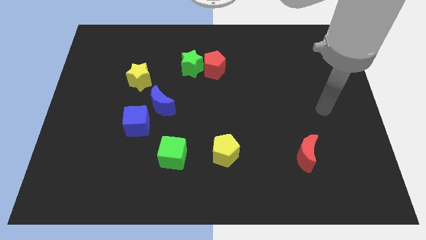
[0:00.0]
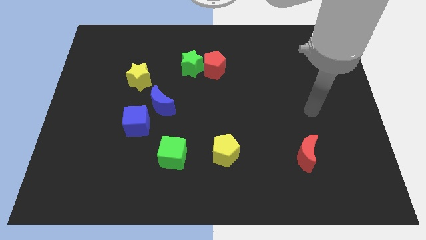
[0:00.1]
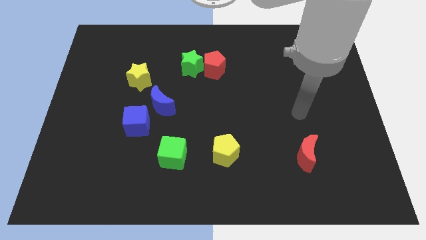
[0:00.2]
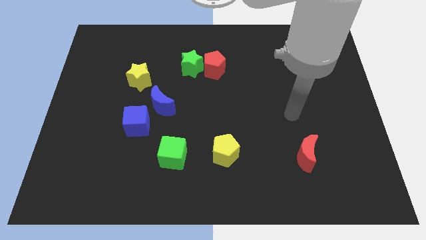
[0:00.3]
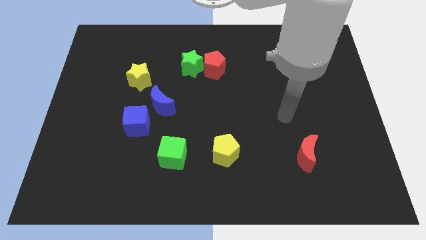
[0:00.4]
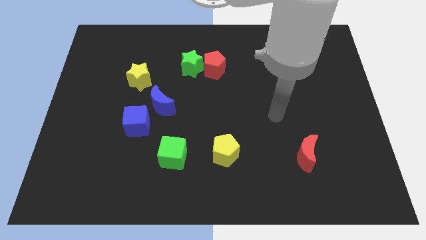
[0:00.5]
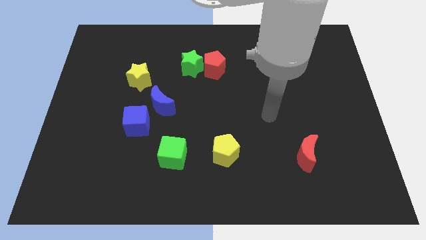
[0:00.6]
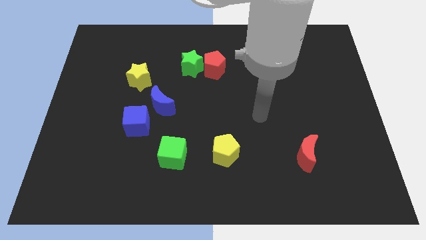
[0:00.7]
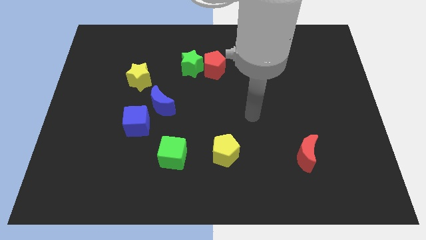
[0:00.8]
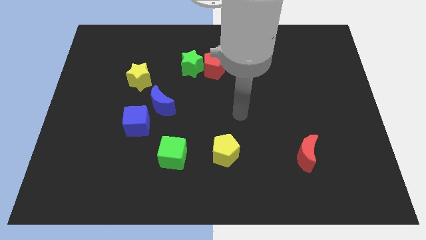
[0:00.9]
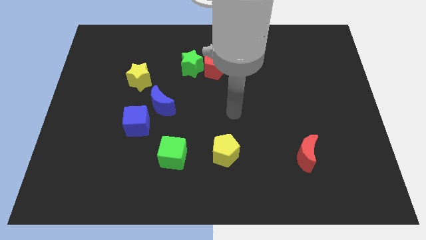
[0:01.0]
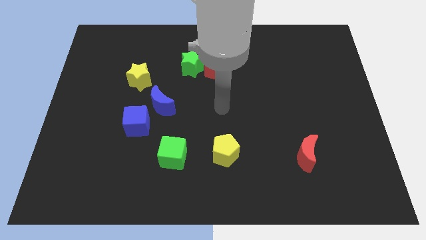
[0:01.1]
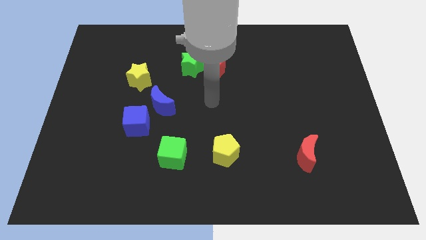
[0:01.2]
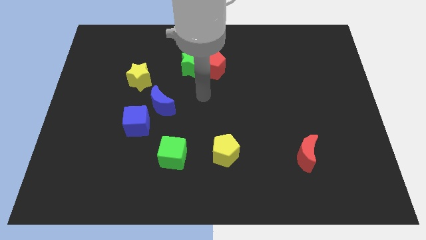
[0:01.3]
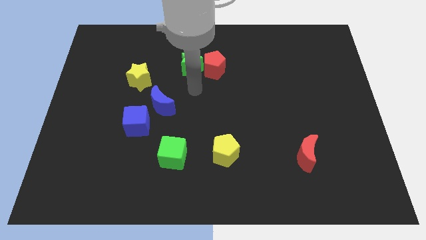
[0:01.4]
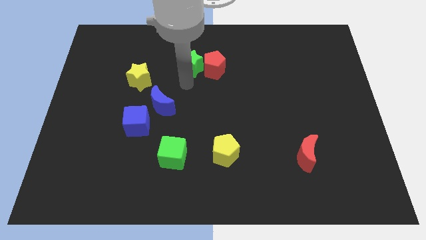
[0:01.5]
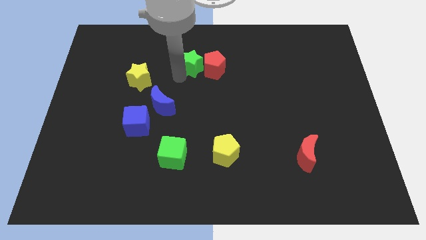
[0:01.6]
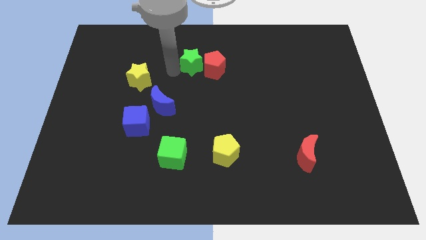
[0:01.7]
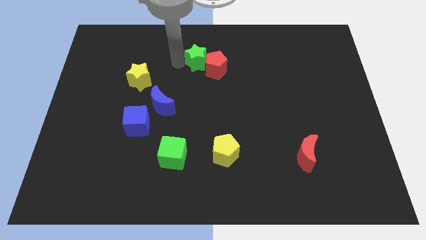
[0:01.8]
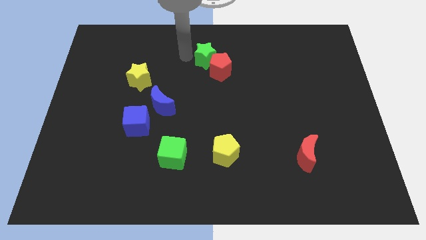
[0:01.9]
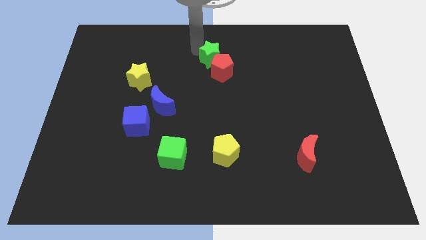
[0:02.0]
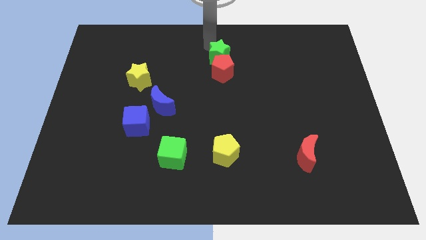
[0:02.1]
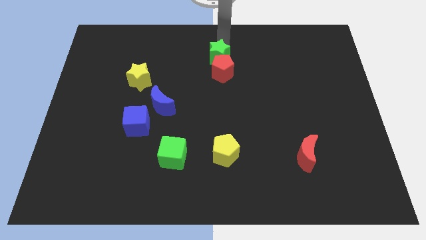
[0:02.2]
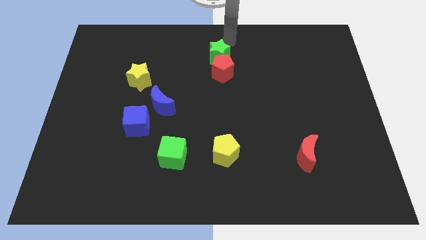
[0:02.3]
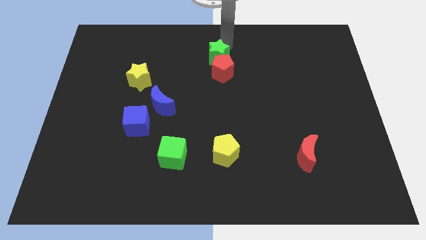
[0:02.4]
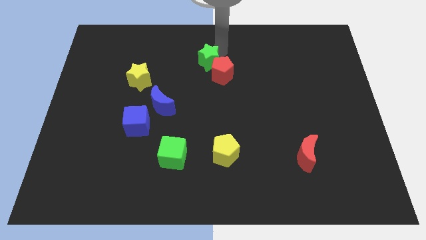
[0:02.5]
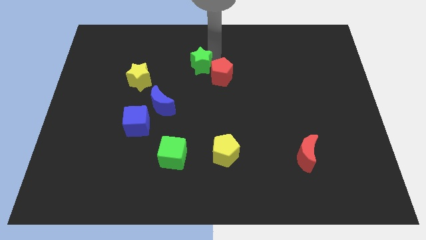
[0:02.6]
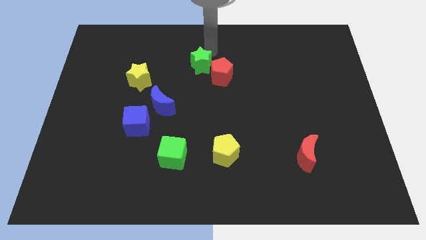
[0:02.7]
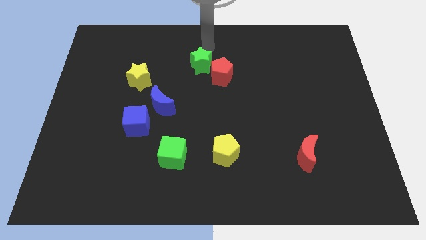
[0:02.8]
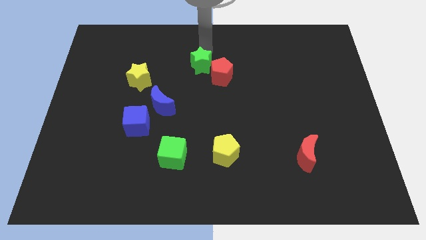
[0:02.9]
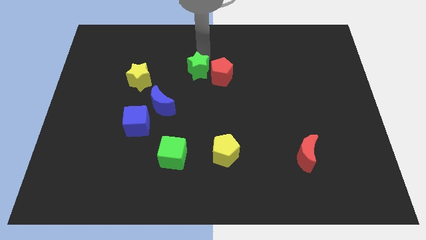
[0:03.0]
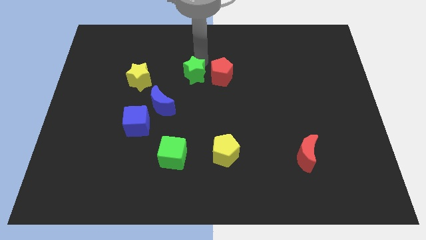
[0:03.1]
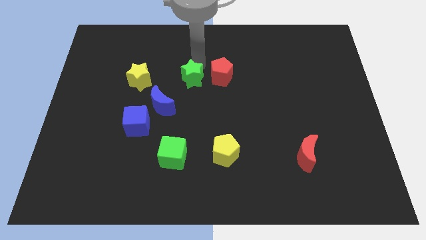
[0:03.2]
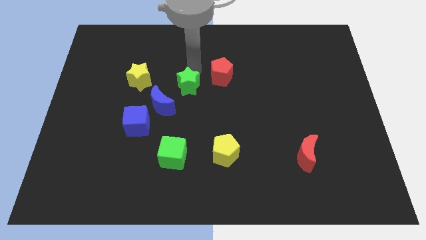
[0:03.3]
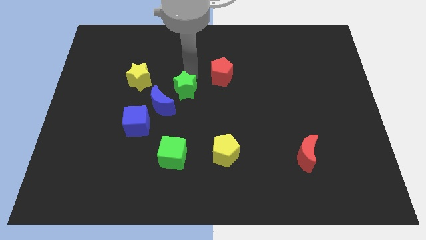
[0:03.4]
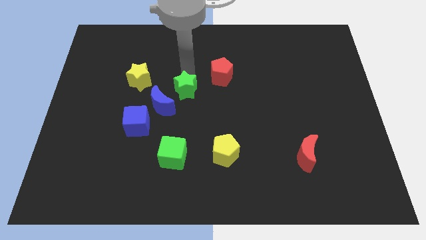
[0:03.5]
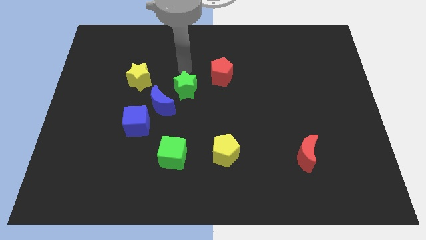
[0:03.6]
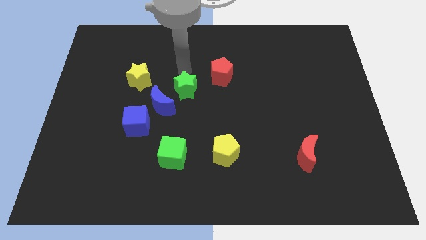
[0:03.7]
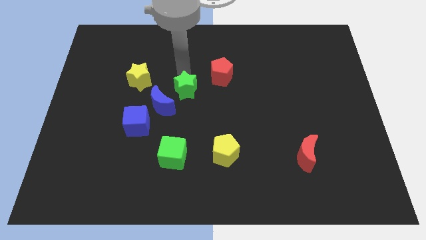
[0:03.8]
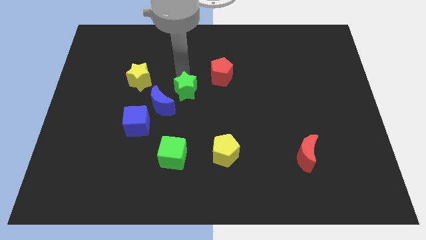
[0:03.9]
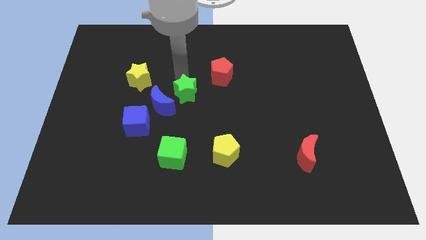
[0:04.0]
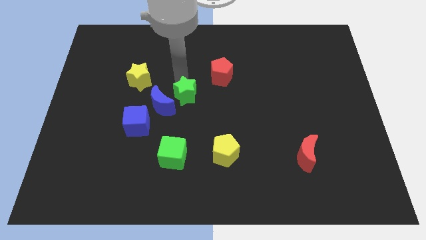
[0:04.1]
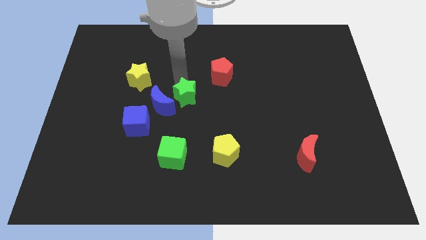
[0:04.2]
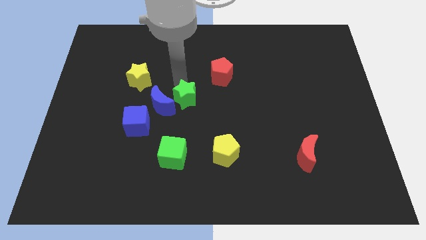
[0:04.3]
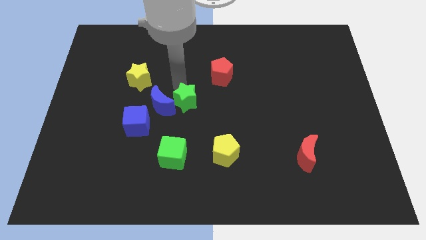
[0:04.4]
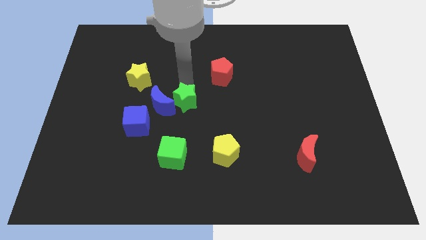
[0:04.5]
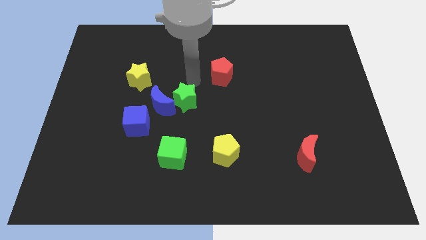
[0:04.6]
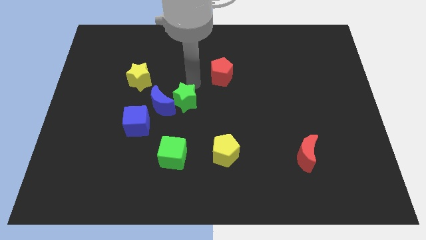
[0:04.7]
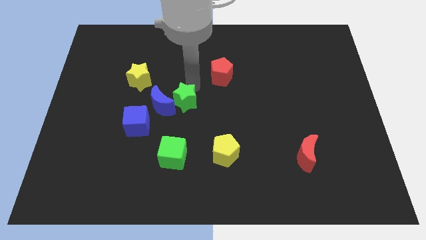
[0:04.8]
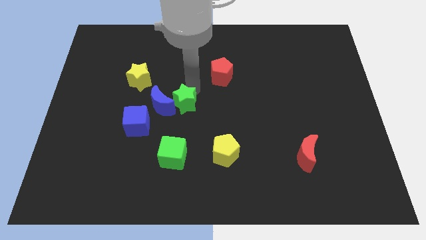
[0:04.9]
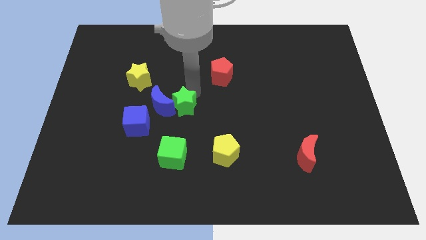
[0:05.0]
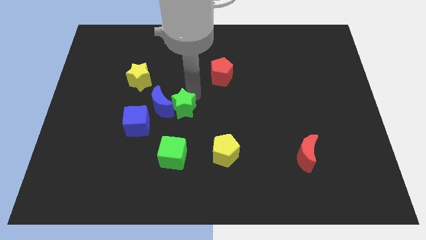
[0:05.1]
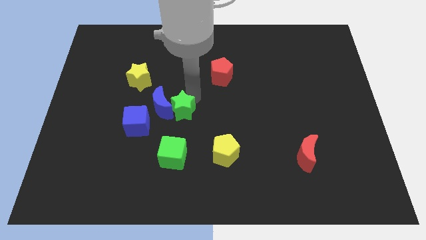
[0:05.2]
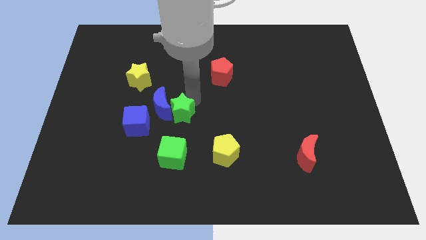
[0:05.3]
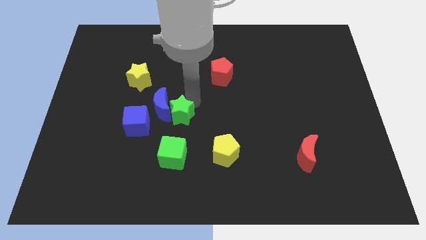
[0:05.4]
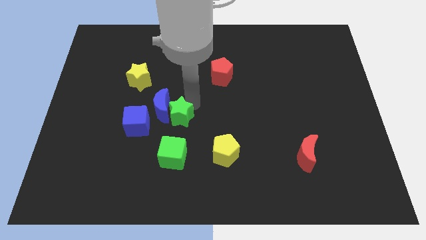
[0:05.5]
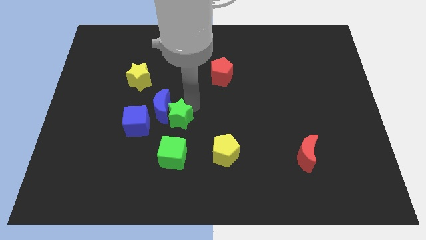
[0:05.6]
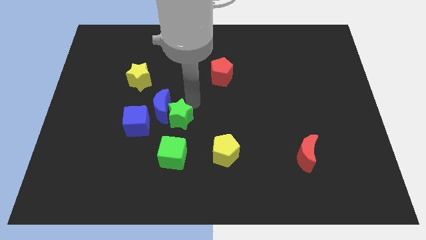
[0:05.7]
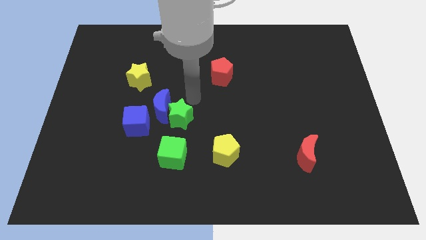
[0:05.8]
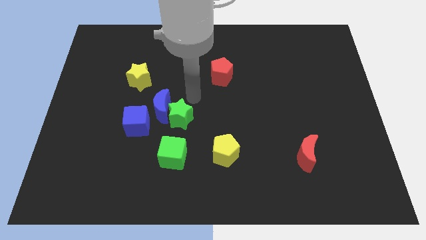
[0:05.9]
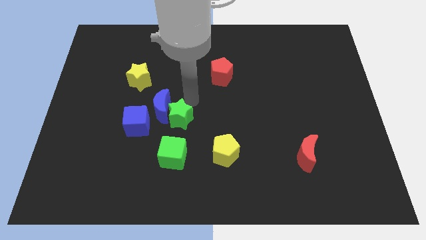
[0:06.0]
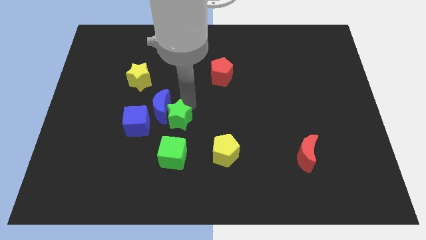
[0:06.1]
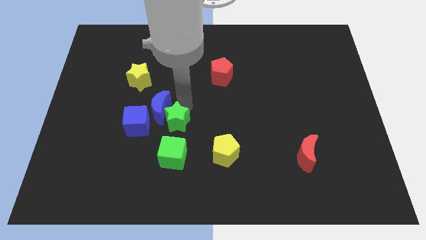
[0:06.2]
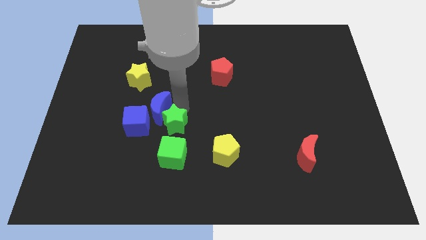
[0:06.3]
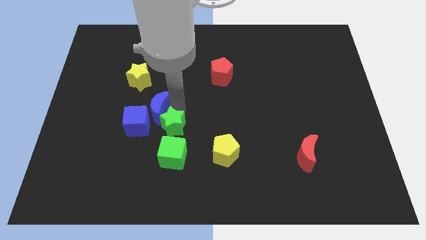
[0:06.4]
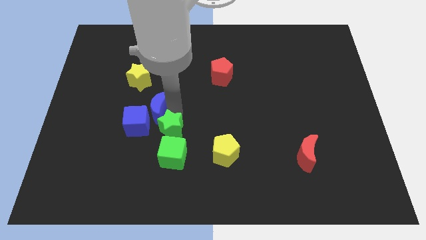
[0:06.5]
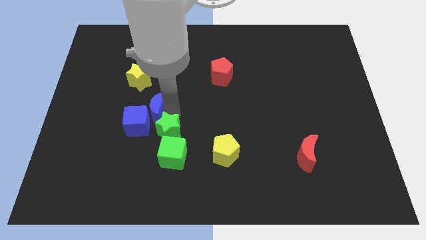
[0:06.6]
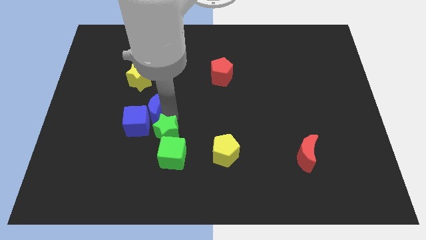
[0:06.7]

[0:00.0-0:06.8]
put the green star next to the green cube

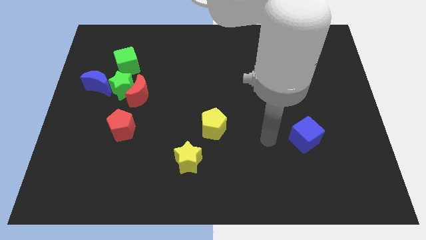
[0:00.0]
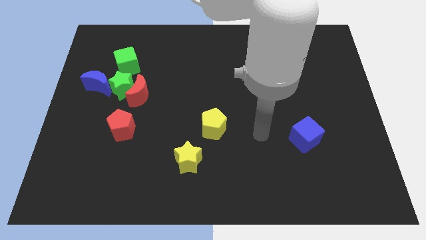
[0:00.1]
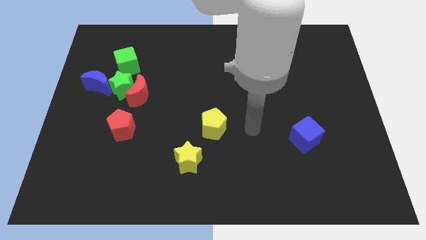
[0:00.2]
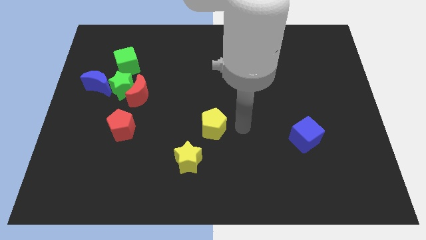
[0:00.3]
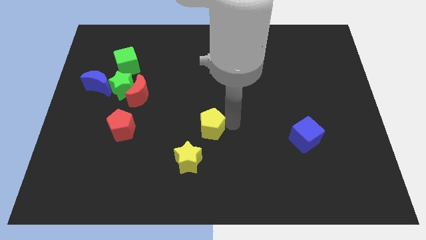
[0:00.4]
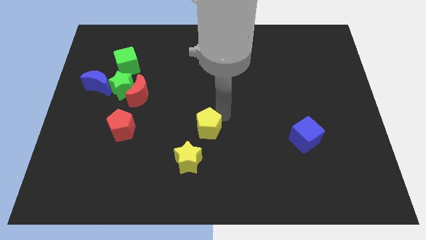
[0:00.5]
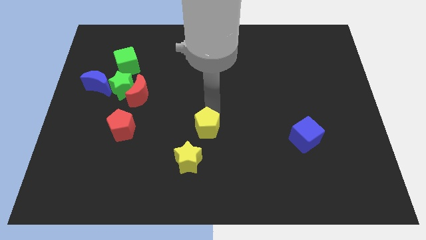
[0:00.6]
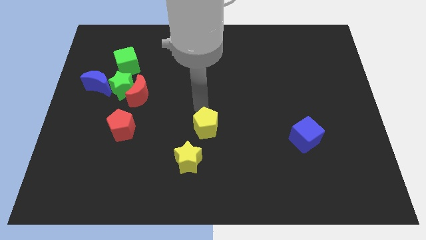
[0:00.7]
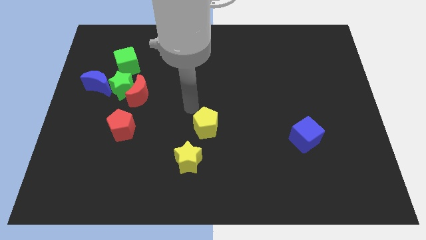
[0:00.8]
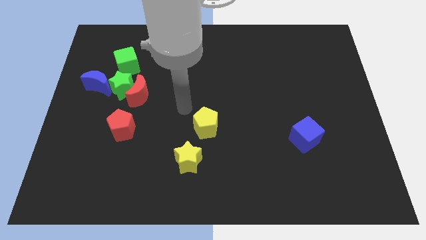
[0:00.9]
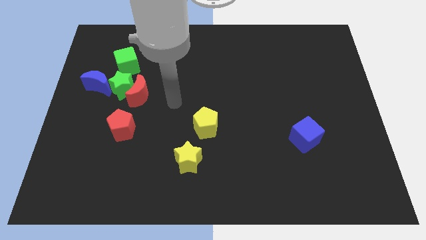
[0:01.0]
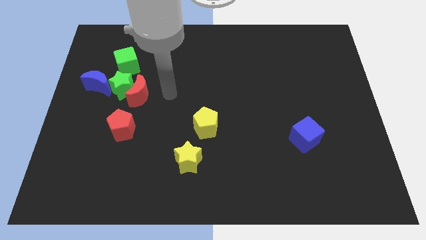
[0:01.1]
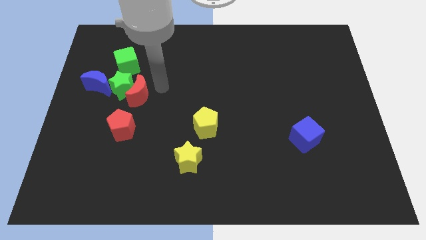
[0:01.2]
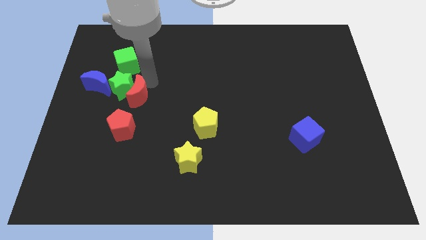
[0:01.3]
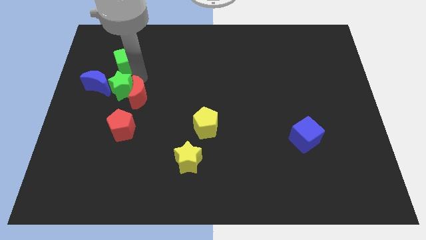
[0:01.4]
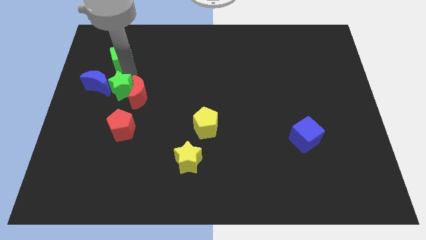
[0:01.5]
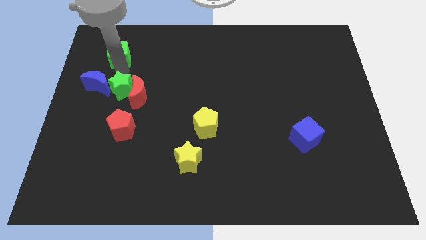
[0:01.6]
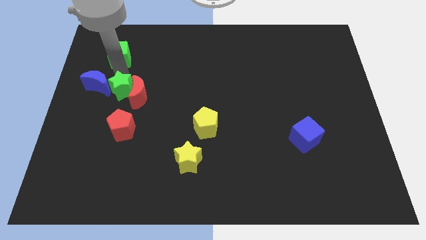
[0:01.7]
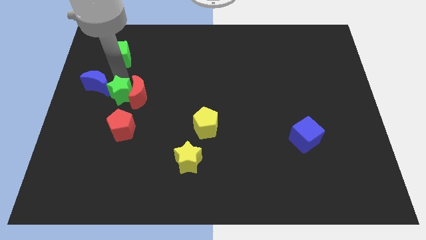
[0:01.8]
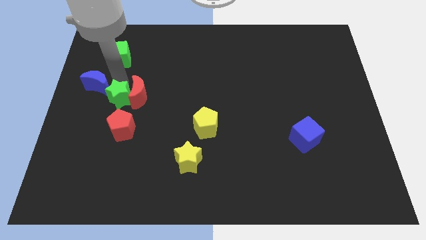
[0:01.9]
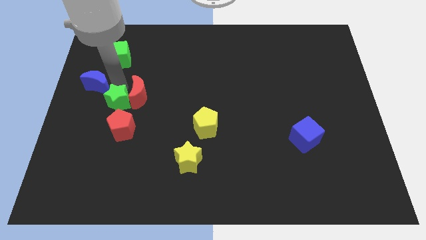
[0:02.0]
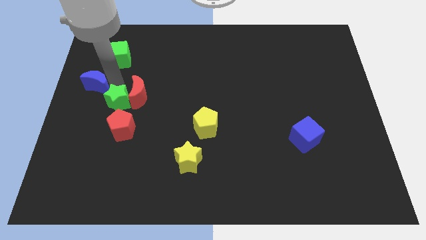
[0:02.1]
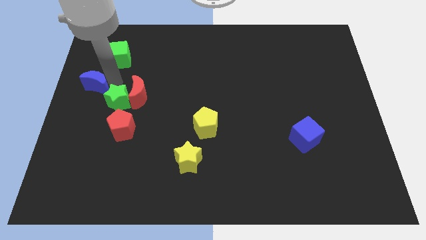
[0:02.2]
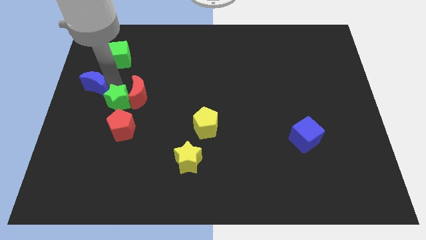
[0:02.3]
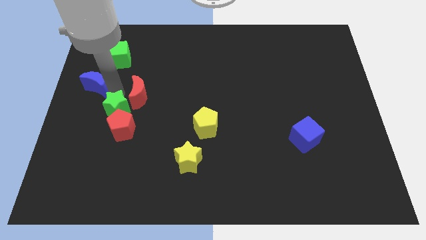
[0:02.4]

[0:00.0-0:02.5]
put the green star towards the red pentagon
